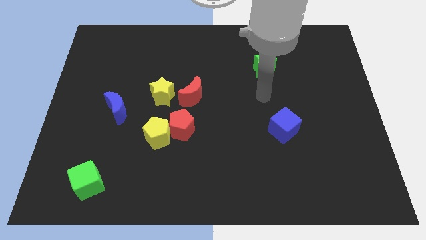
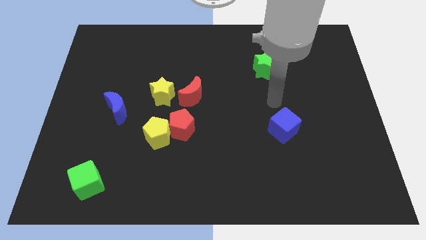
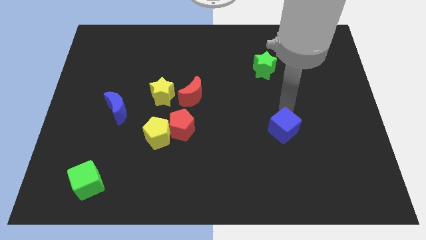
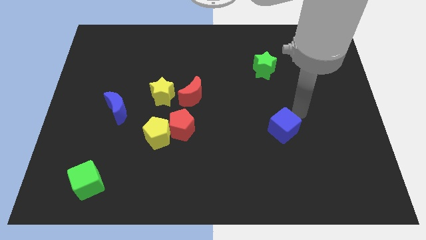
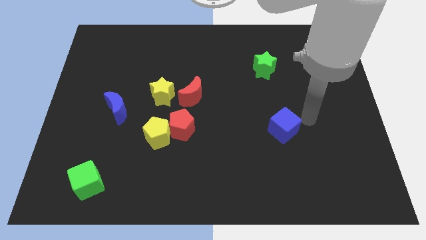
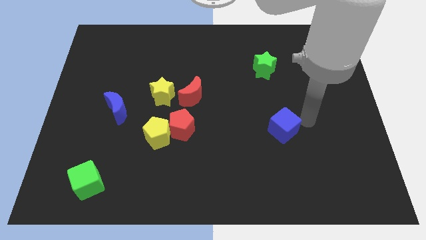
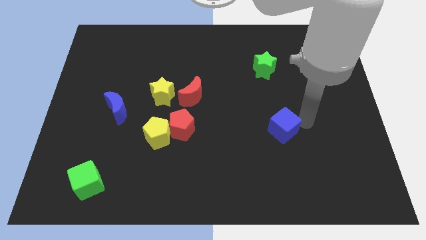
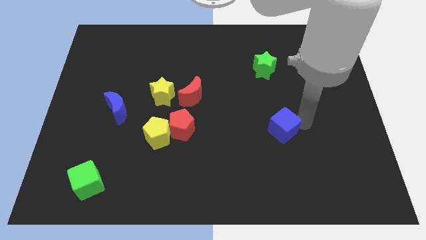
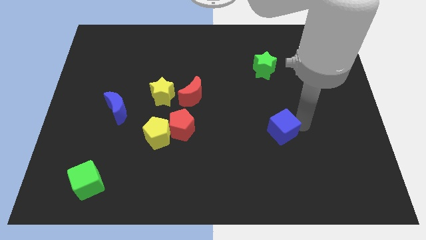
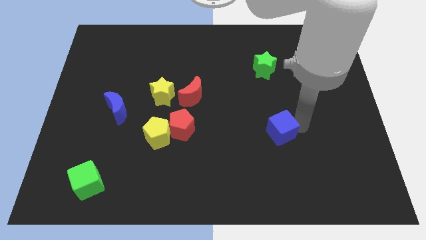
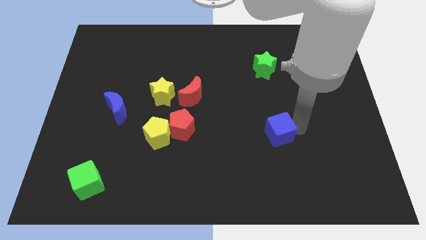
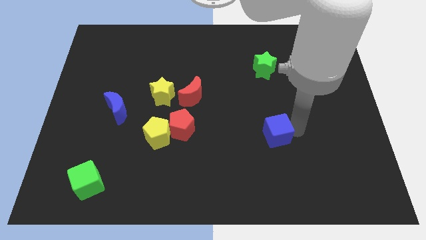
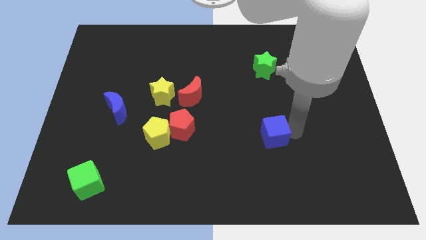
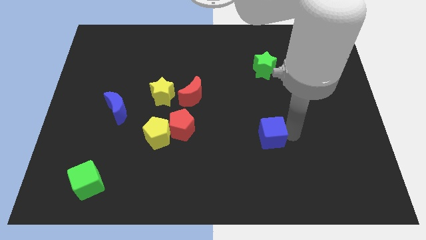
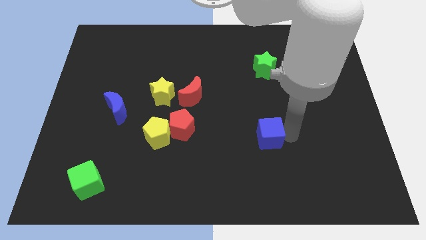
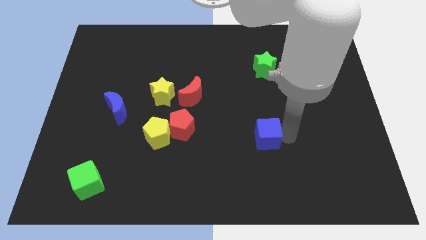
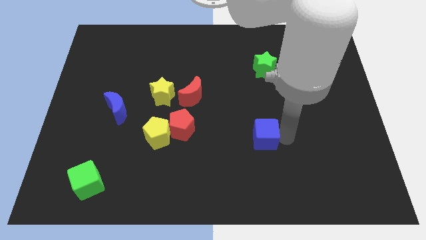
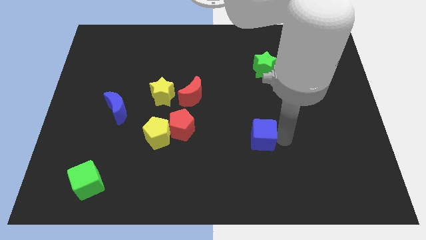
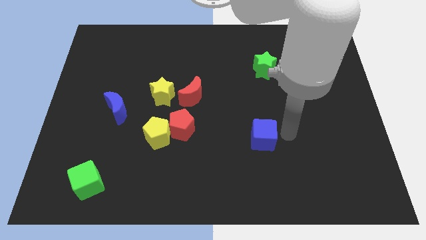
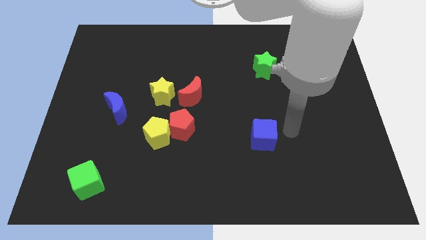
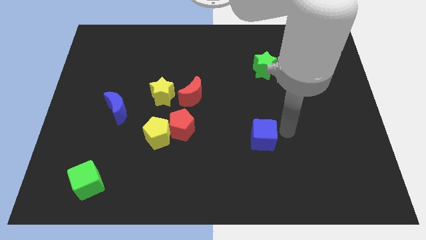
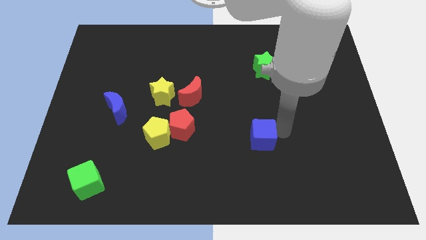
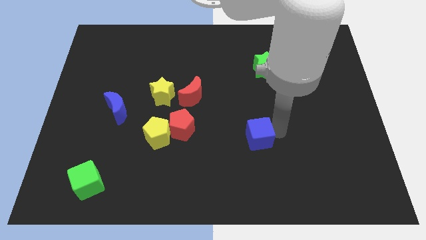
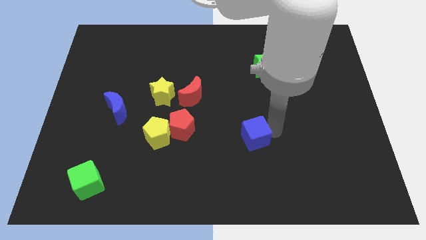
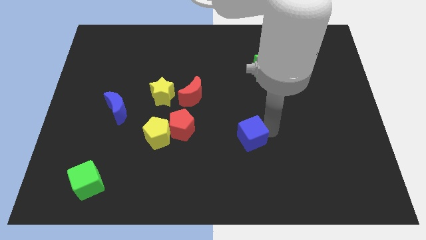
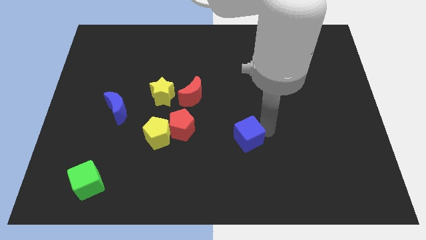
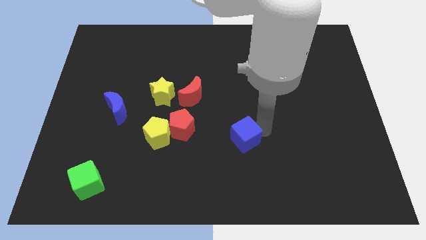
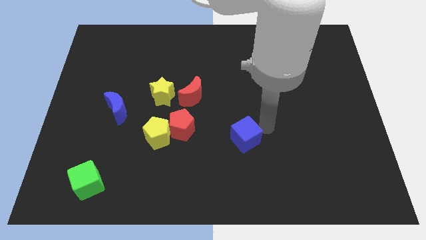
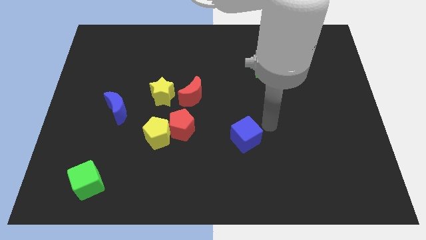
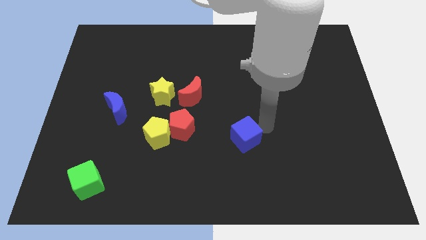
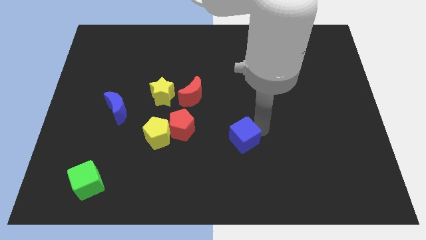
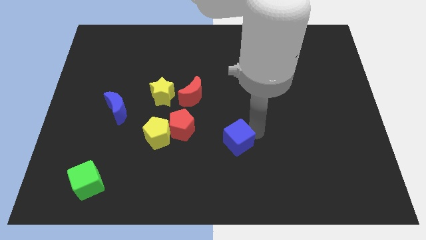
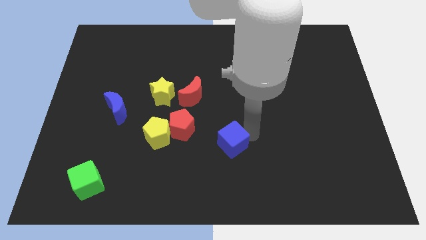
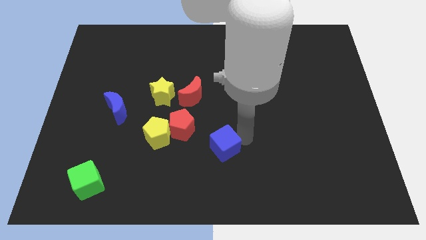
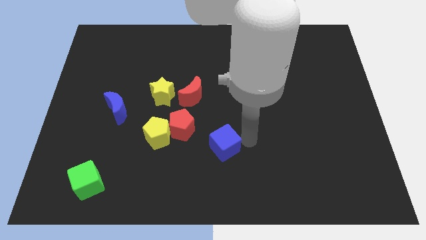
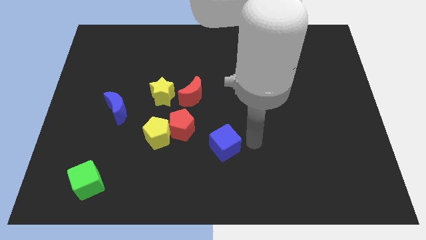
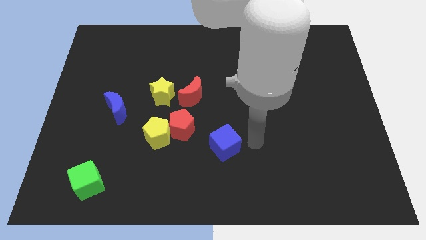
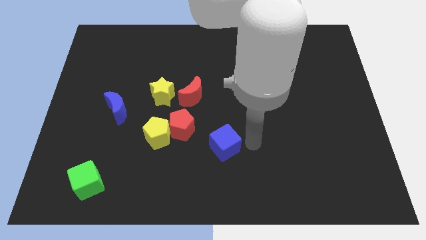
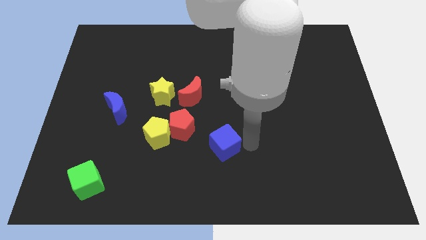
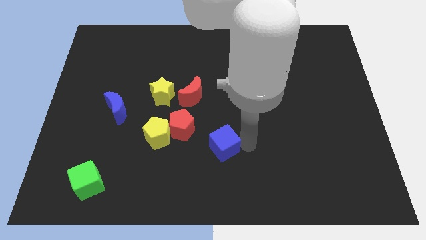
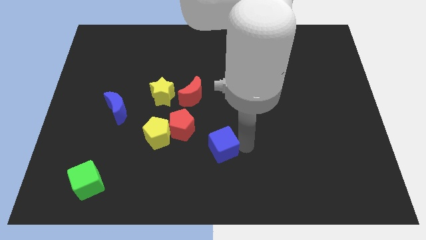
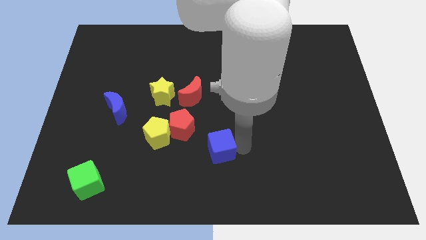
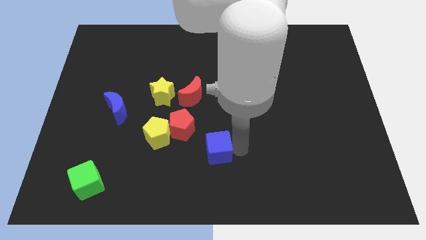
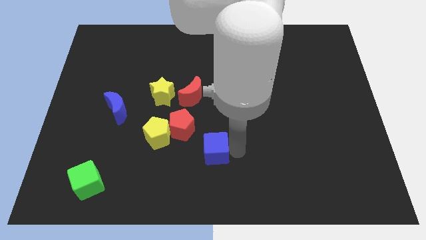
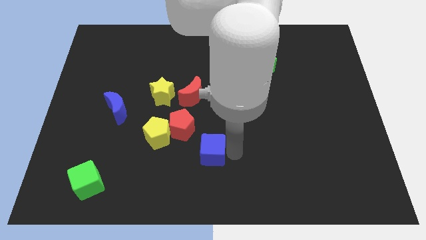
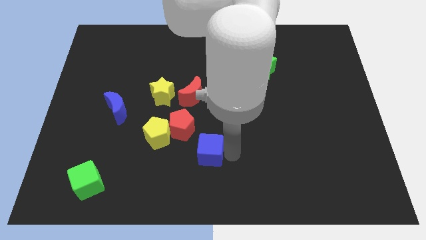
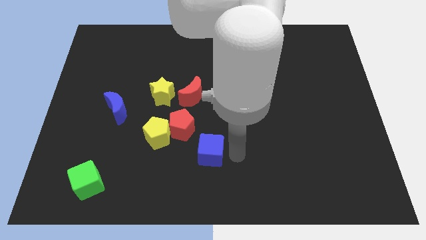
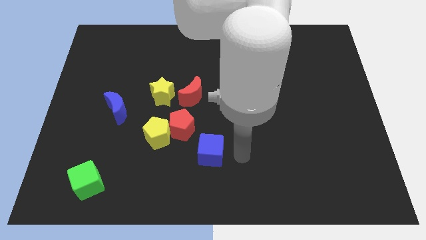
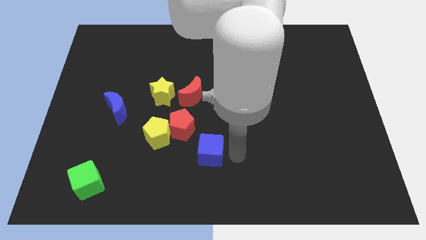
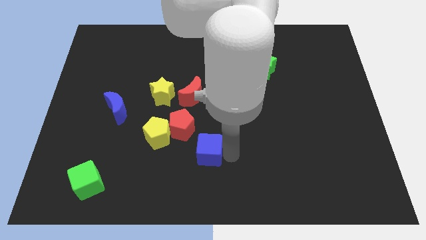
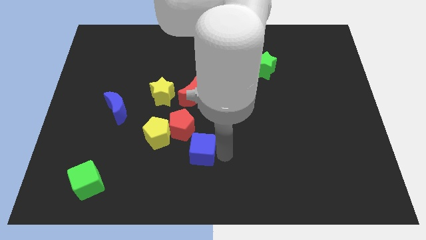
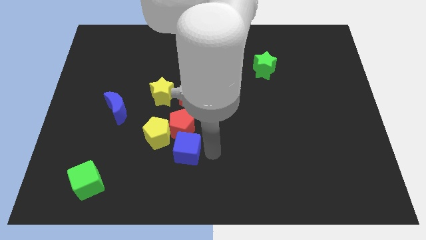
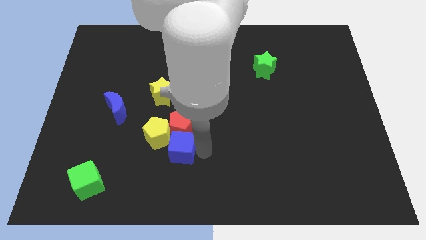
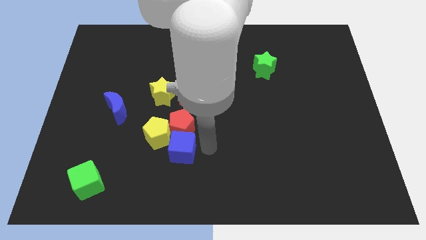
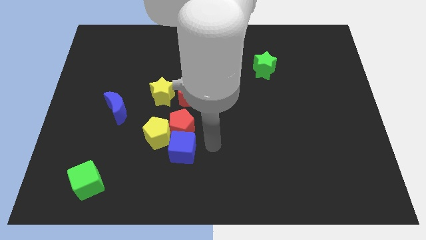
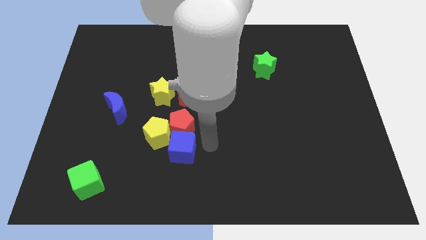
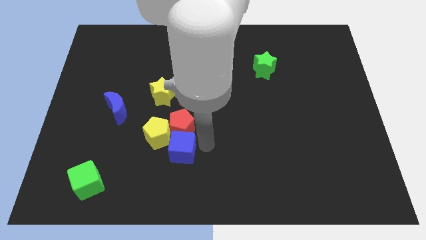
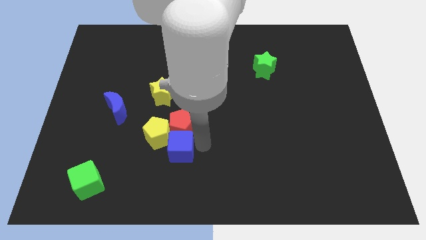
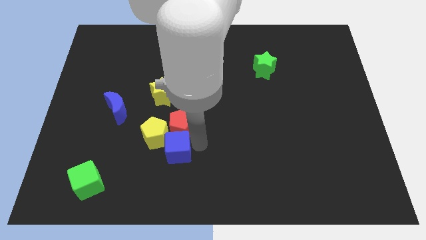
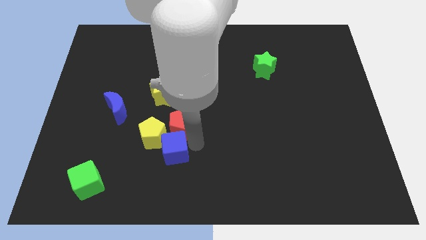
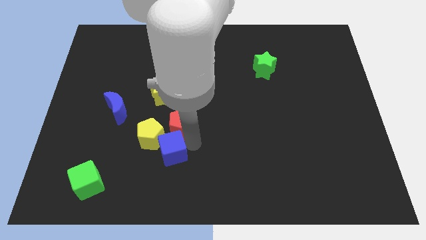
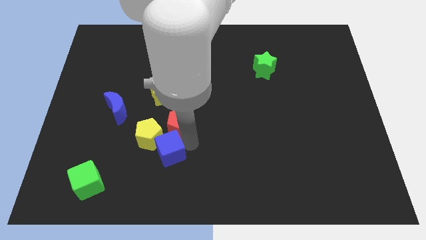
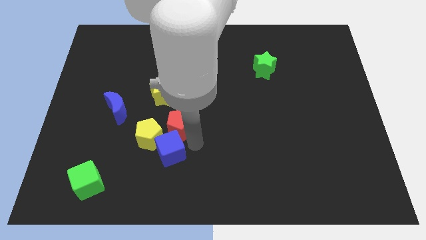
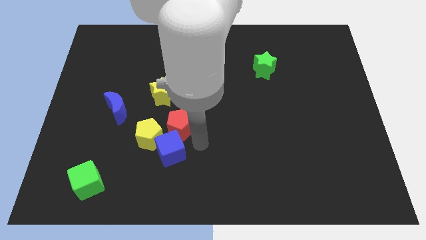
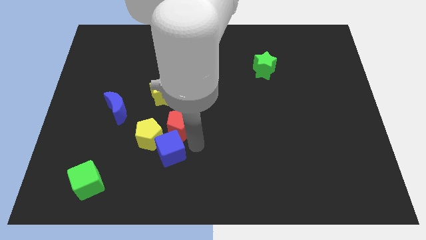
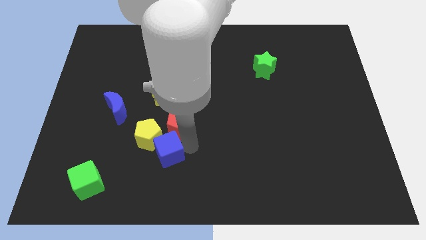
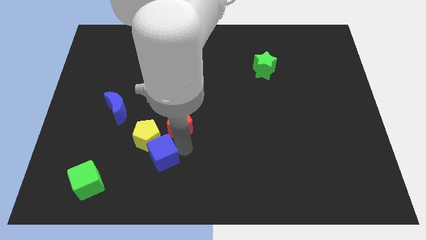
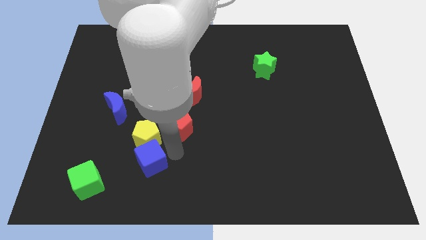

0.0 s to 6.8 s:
slide the blue cube to the bottom left side of the yellow pentagon
